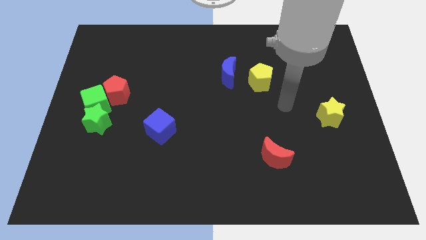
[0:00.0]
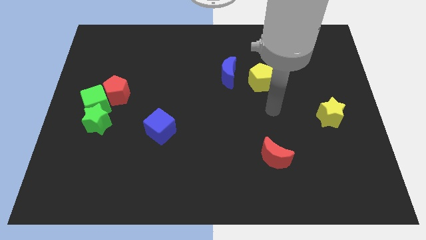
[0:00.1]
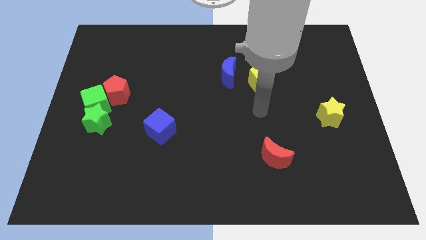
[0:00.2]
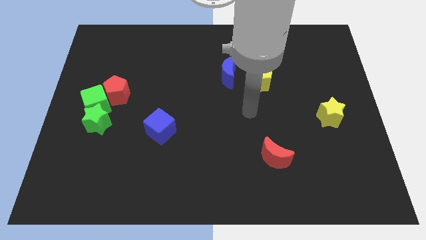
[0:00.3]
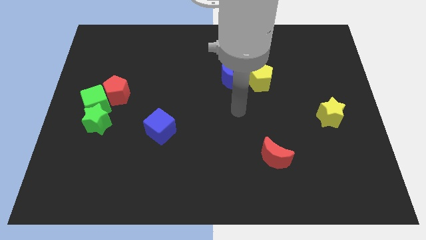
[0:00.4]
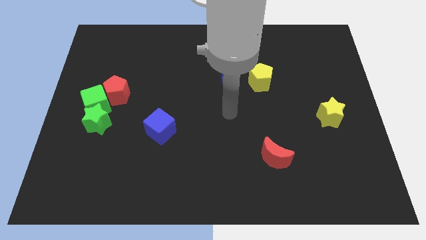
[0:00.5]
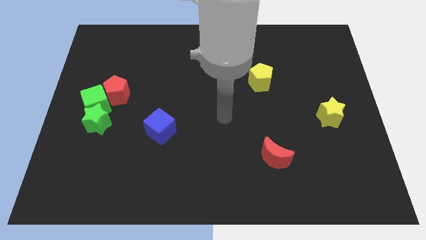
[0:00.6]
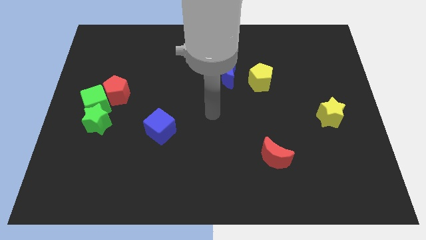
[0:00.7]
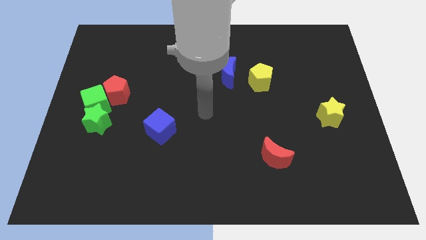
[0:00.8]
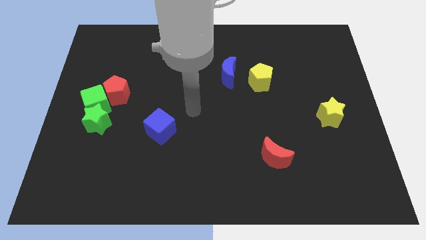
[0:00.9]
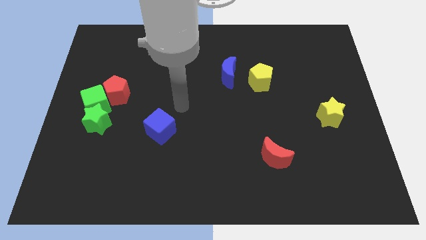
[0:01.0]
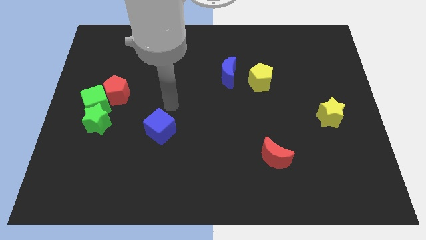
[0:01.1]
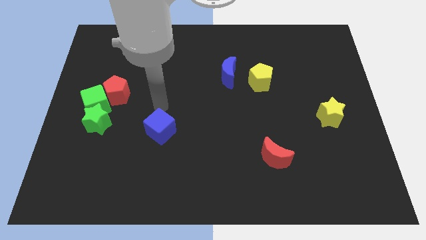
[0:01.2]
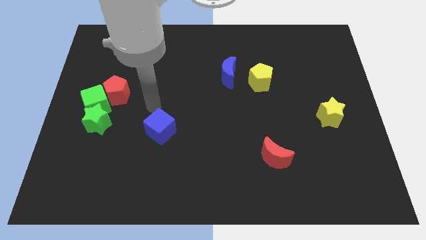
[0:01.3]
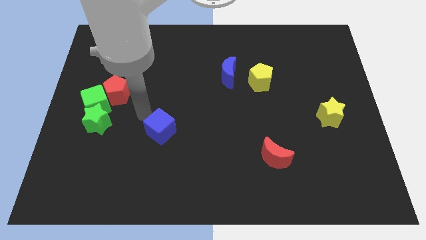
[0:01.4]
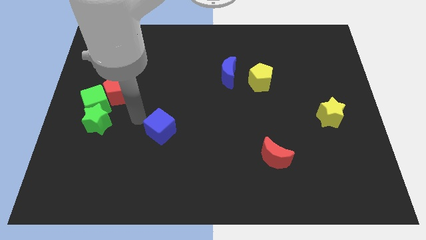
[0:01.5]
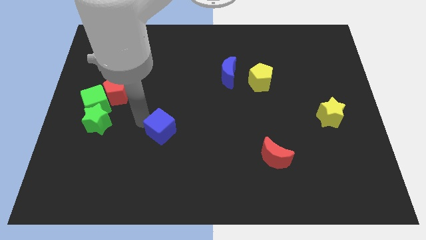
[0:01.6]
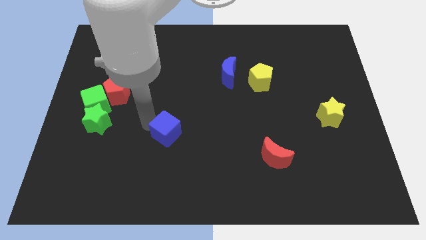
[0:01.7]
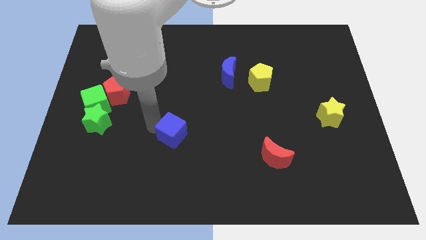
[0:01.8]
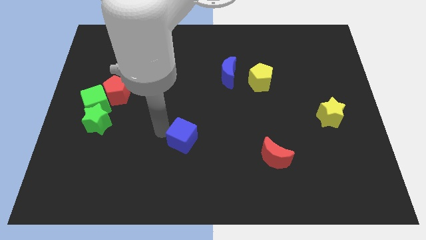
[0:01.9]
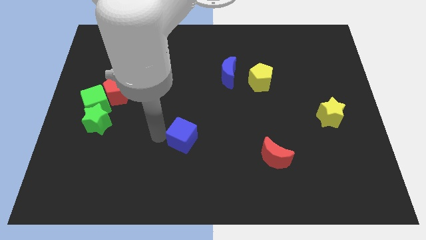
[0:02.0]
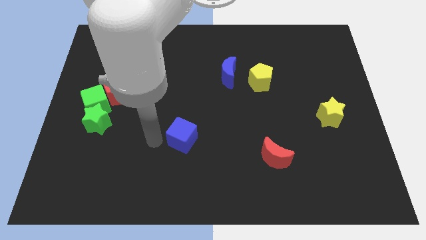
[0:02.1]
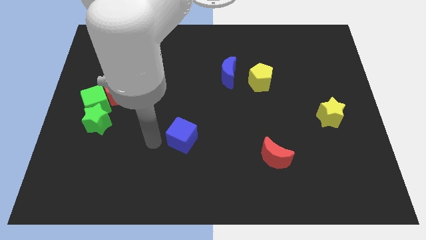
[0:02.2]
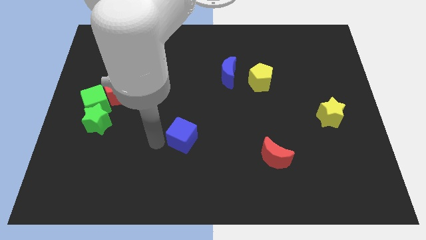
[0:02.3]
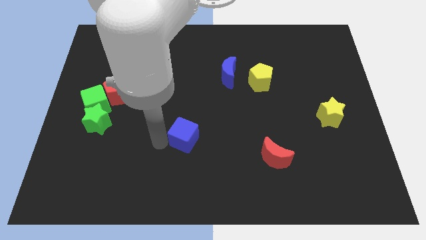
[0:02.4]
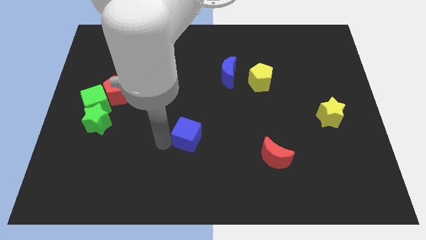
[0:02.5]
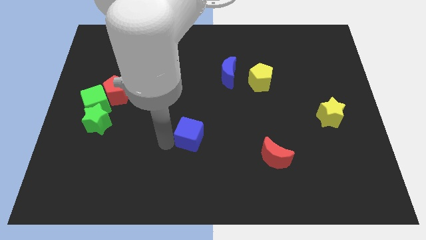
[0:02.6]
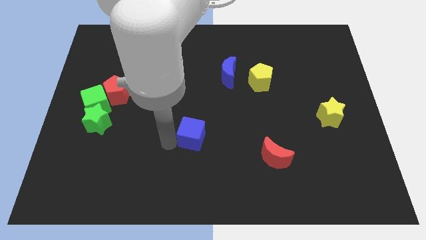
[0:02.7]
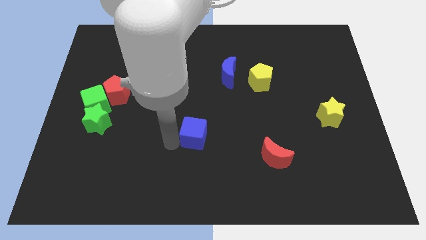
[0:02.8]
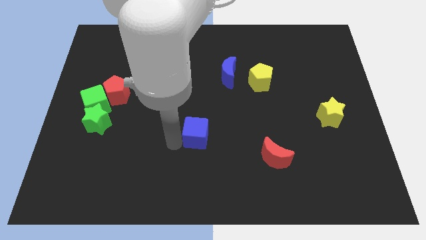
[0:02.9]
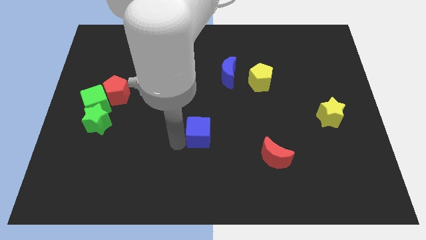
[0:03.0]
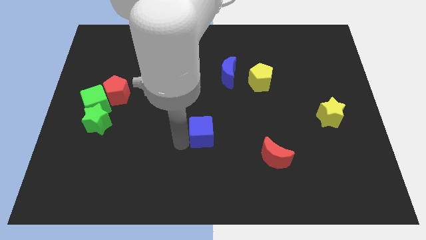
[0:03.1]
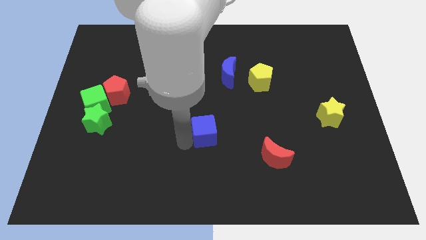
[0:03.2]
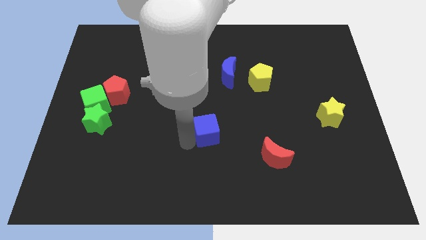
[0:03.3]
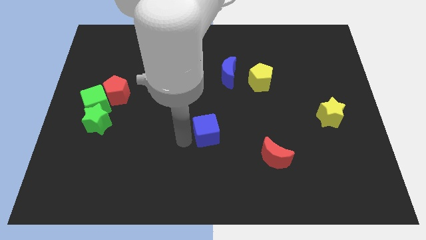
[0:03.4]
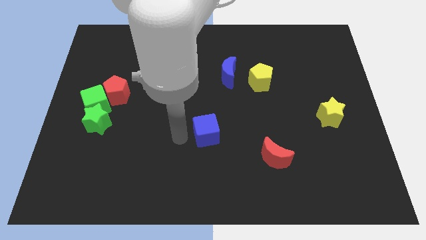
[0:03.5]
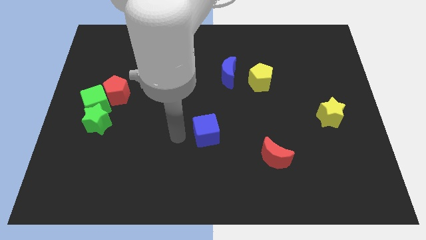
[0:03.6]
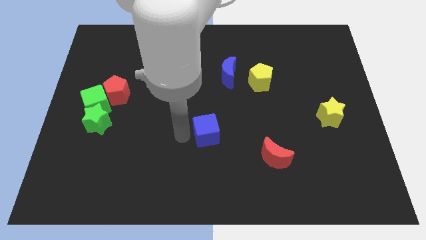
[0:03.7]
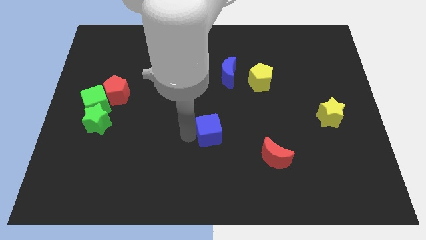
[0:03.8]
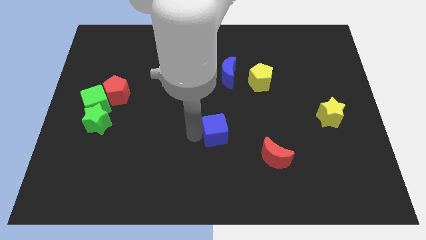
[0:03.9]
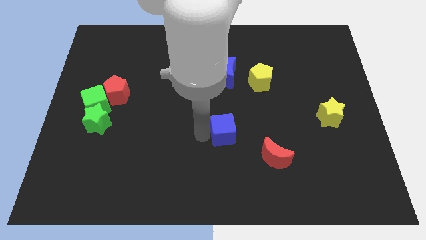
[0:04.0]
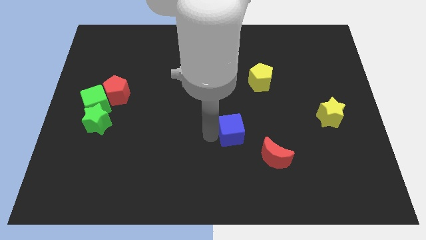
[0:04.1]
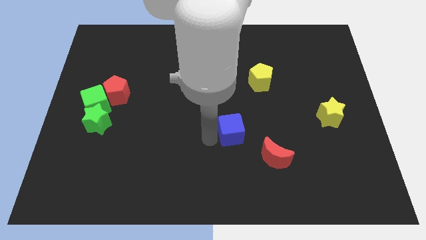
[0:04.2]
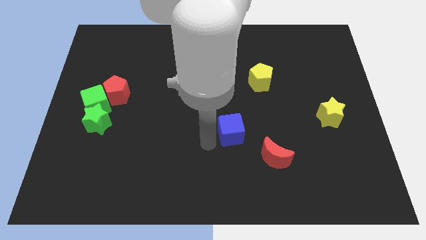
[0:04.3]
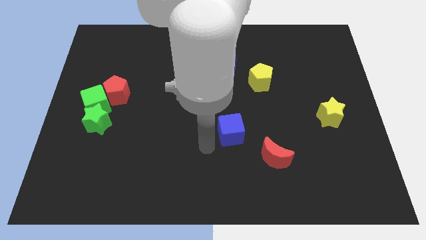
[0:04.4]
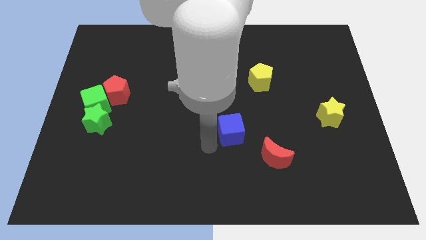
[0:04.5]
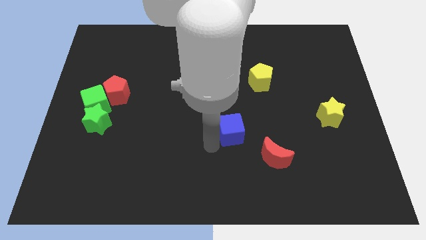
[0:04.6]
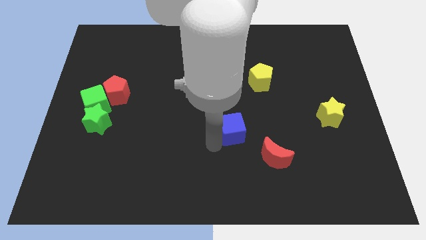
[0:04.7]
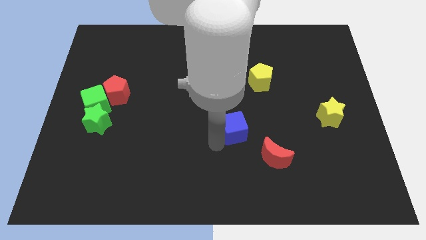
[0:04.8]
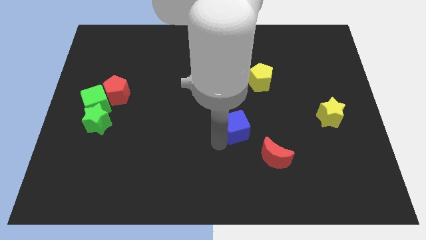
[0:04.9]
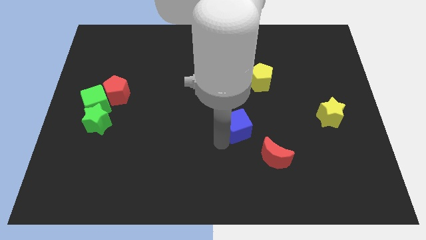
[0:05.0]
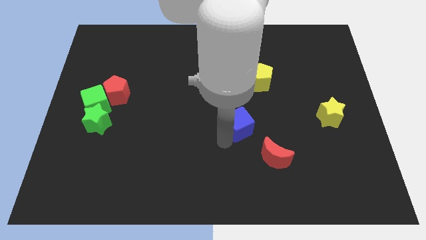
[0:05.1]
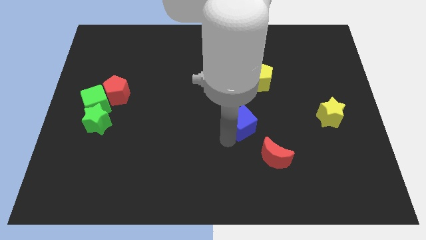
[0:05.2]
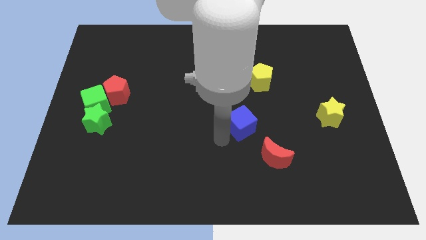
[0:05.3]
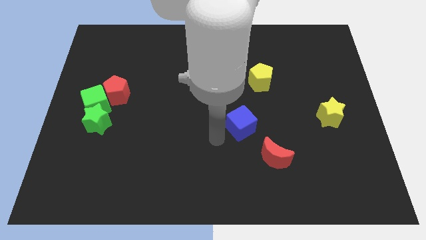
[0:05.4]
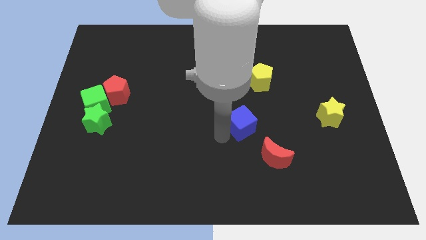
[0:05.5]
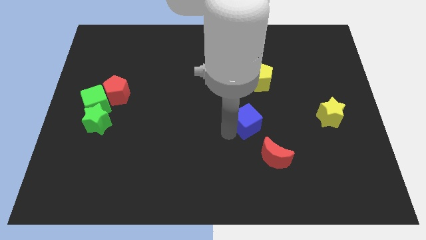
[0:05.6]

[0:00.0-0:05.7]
slide the blue cube to the bottom of the yellow pentagon

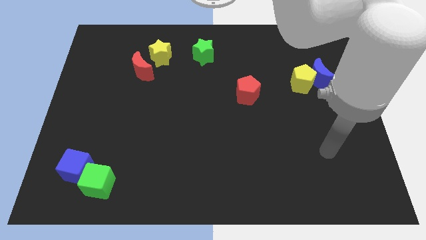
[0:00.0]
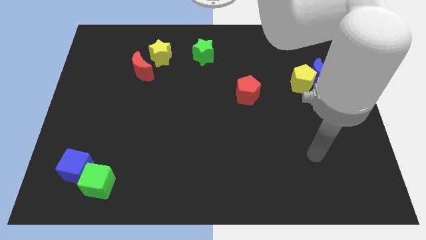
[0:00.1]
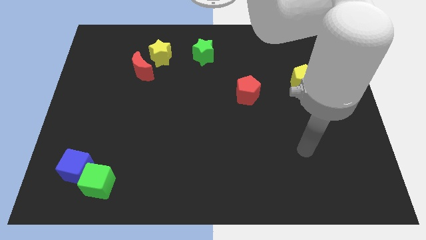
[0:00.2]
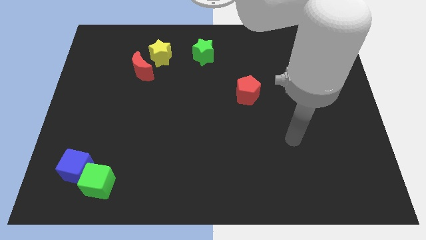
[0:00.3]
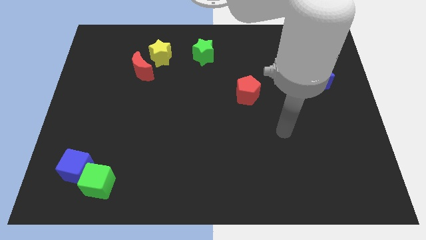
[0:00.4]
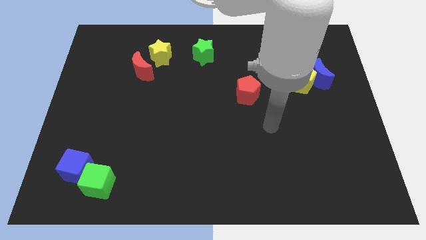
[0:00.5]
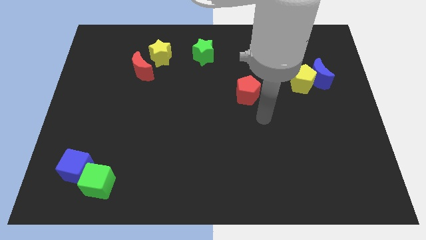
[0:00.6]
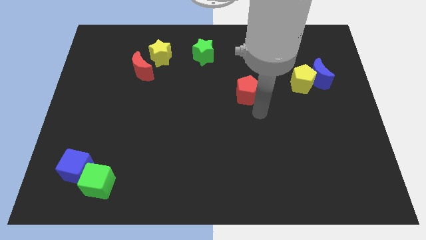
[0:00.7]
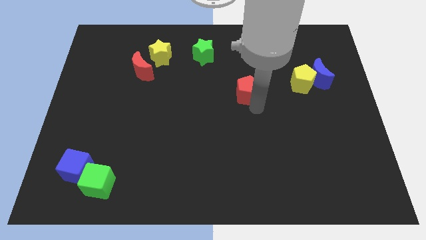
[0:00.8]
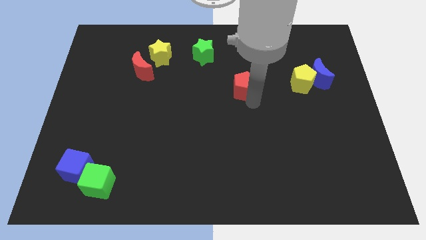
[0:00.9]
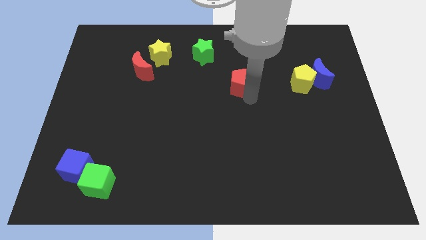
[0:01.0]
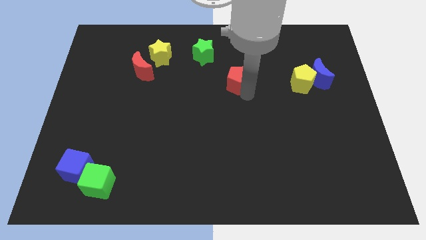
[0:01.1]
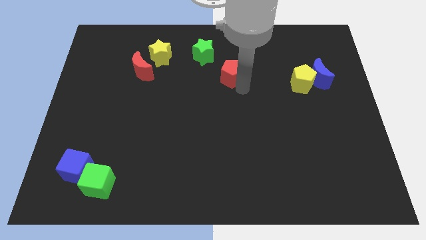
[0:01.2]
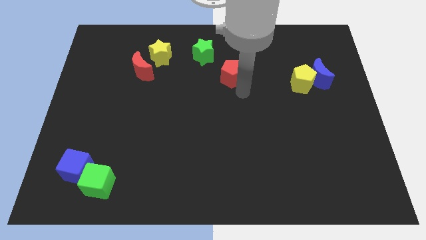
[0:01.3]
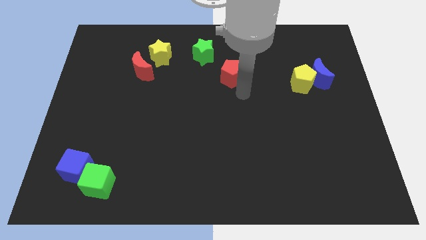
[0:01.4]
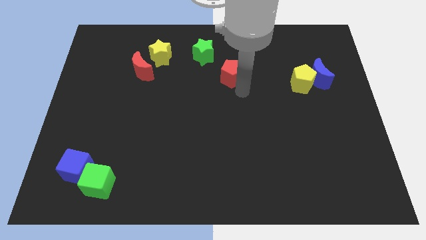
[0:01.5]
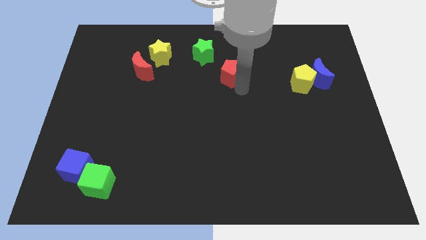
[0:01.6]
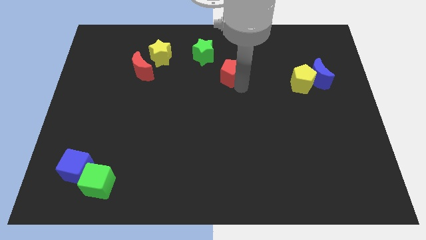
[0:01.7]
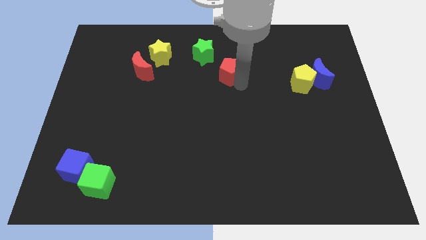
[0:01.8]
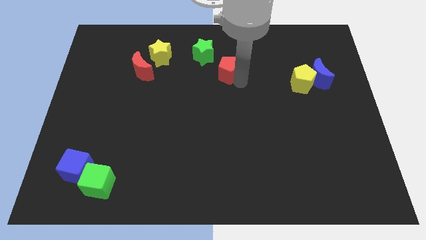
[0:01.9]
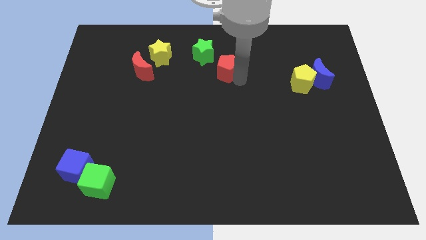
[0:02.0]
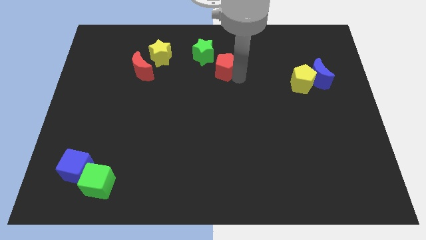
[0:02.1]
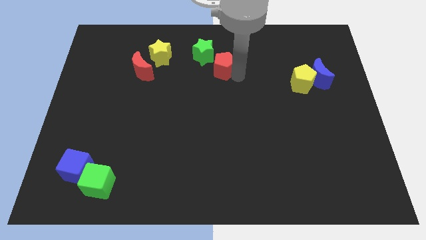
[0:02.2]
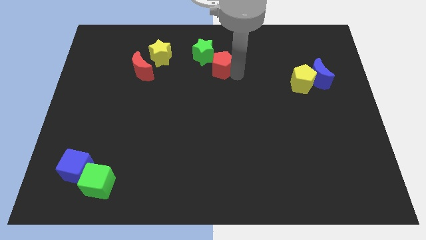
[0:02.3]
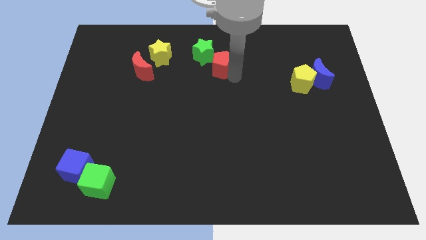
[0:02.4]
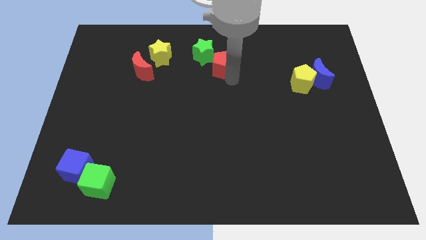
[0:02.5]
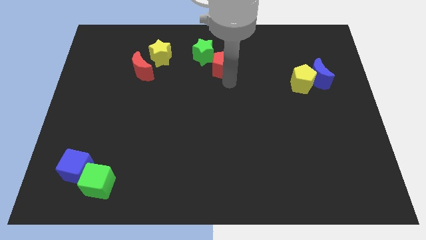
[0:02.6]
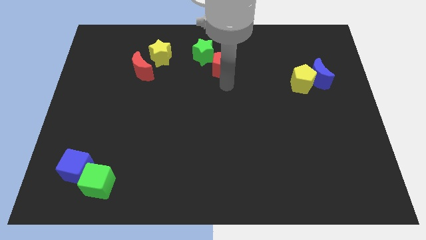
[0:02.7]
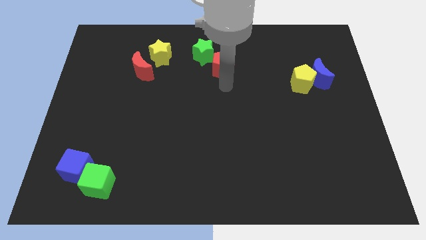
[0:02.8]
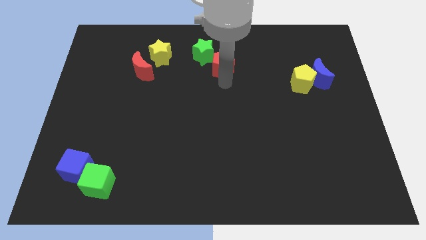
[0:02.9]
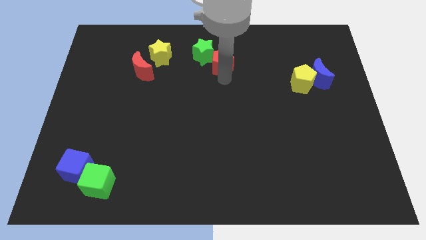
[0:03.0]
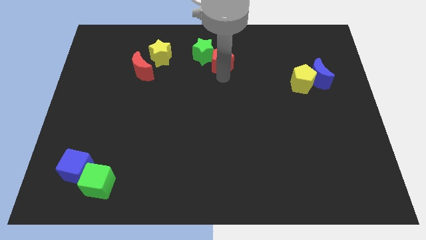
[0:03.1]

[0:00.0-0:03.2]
move the red pentagon just right of the yellow star
